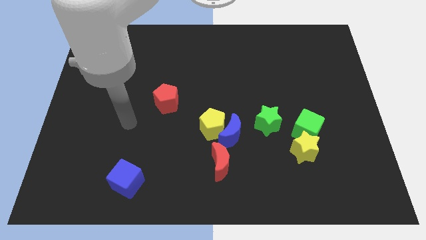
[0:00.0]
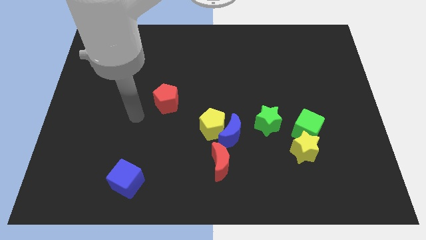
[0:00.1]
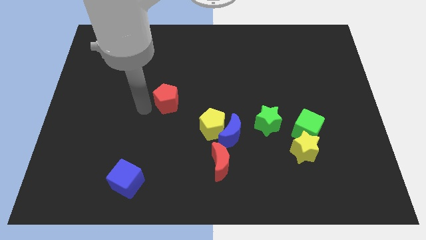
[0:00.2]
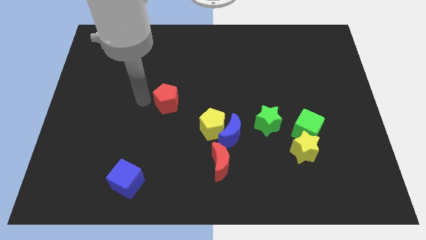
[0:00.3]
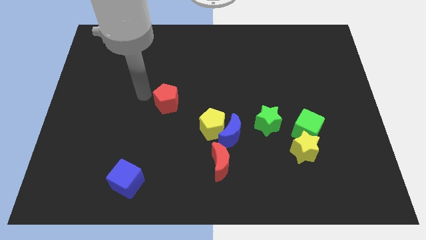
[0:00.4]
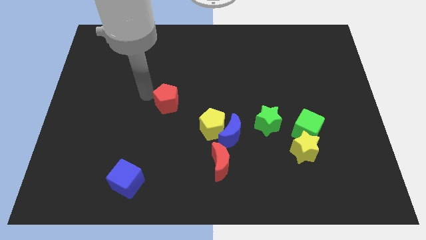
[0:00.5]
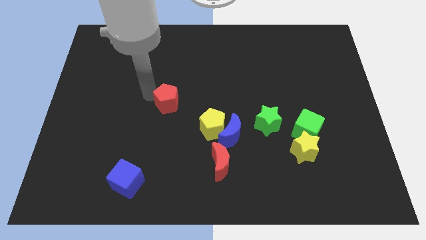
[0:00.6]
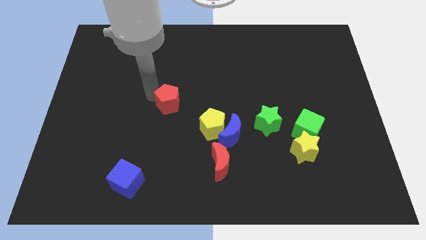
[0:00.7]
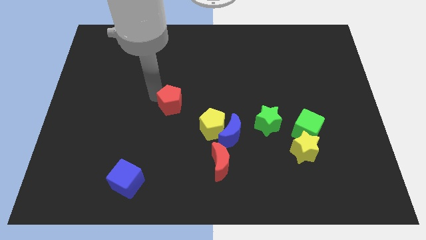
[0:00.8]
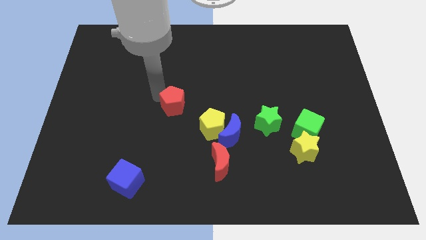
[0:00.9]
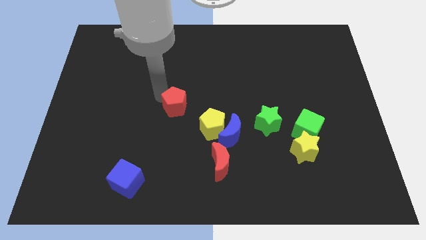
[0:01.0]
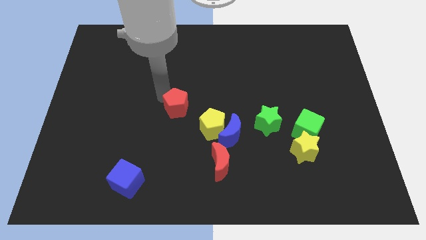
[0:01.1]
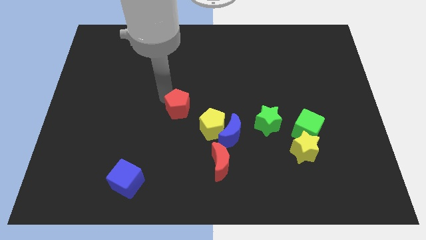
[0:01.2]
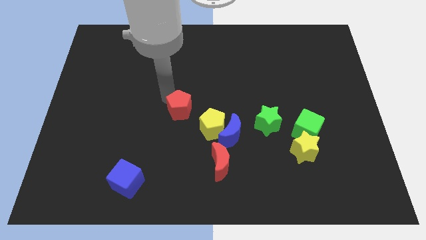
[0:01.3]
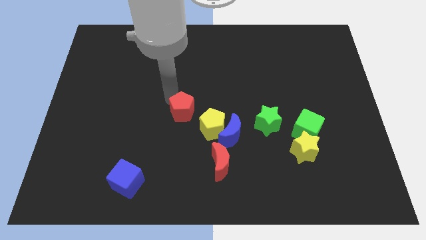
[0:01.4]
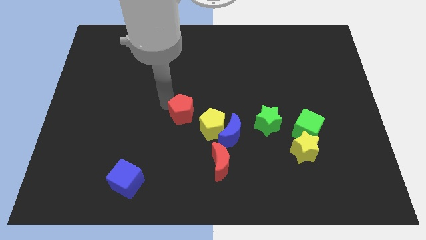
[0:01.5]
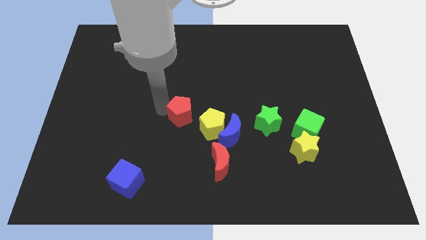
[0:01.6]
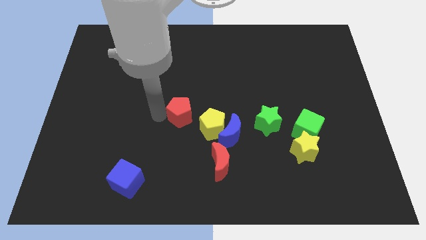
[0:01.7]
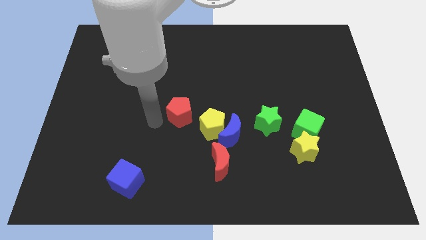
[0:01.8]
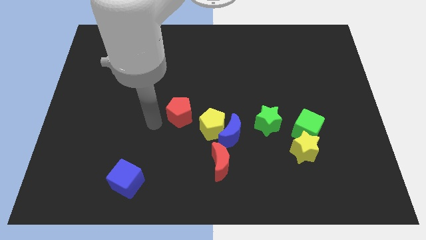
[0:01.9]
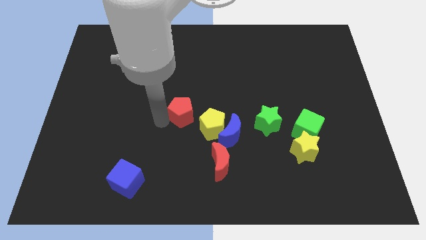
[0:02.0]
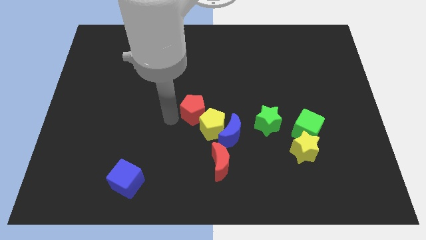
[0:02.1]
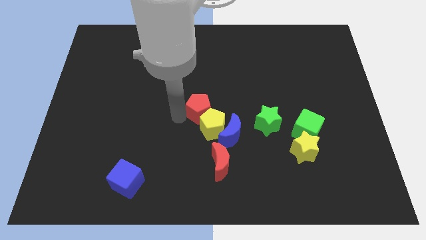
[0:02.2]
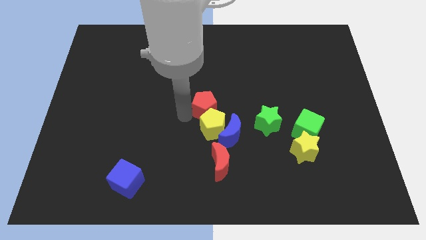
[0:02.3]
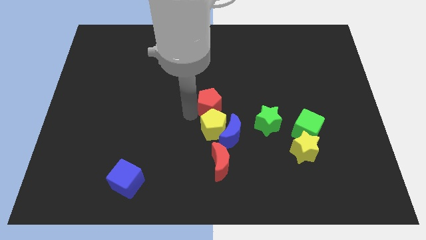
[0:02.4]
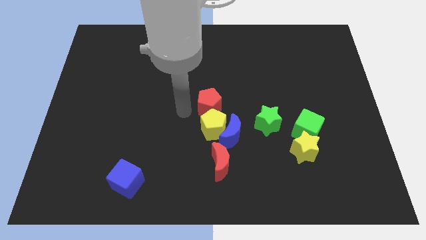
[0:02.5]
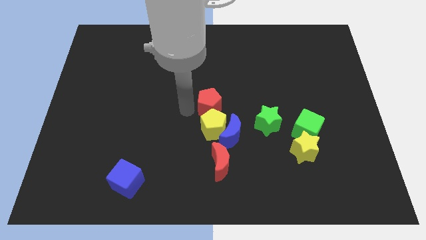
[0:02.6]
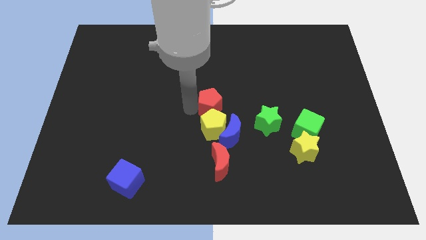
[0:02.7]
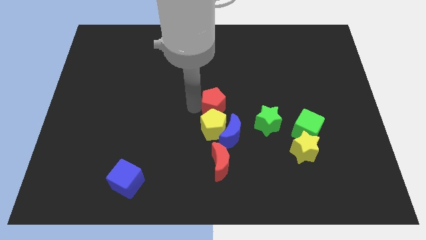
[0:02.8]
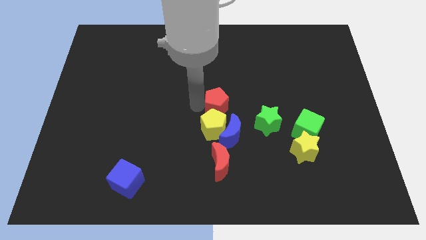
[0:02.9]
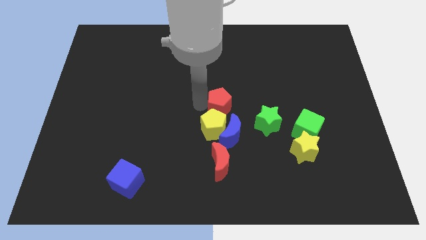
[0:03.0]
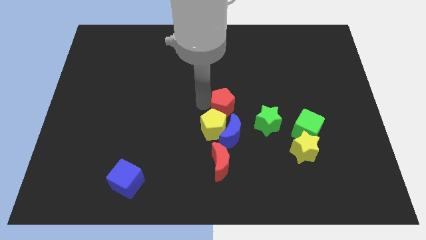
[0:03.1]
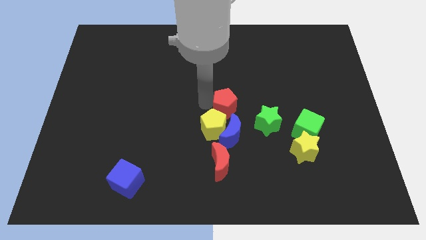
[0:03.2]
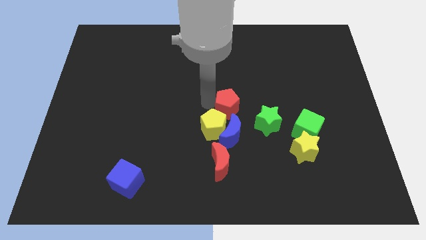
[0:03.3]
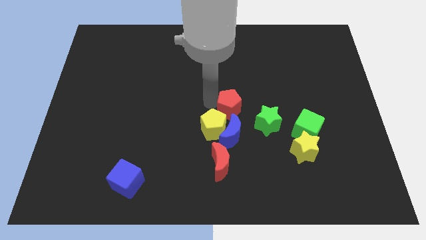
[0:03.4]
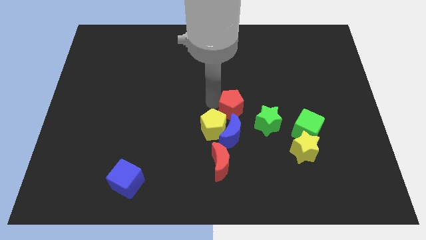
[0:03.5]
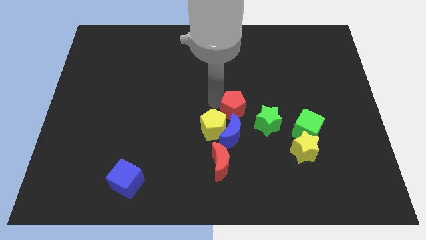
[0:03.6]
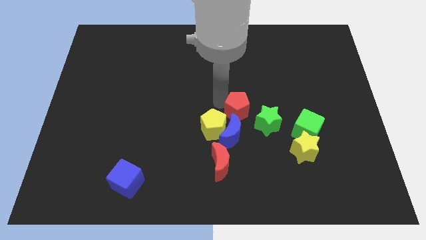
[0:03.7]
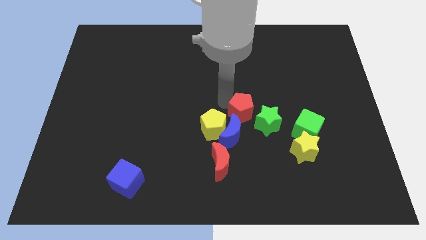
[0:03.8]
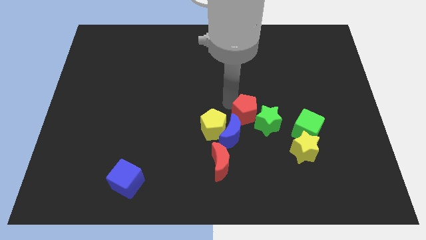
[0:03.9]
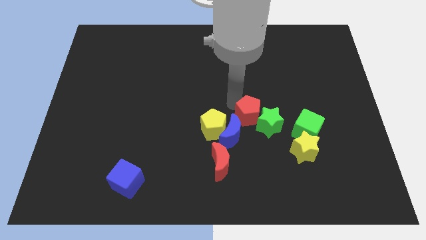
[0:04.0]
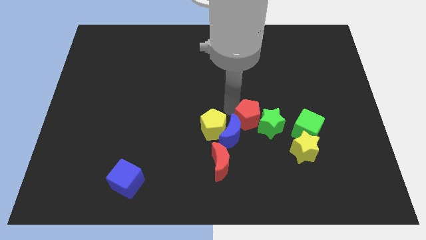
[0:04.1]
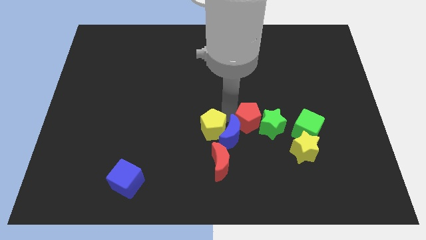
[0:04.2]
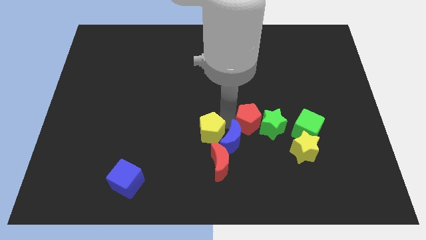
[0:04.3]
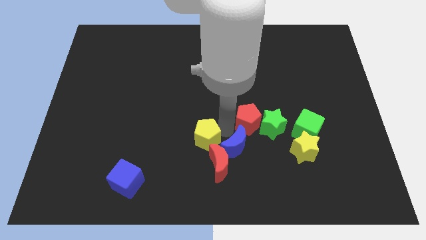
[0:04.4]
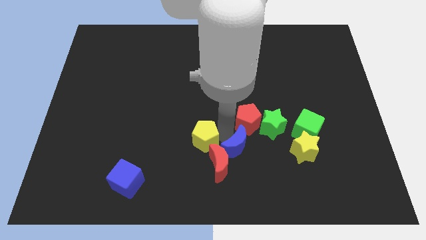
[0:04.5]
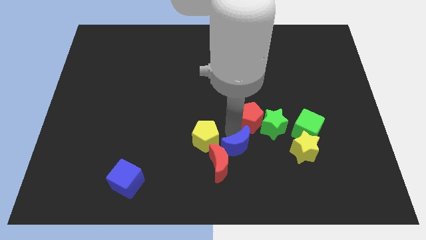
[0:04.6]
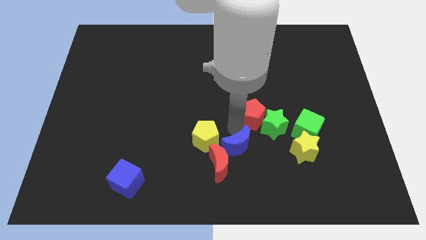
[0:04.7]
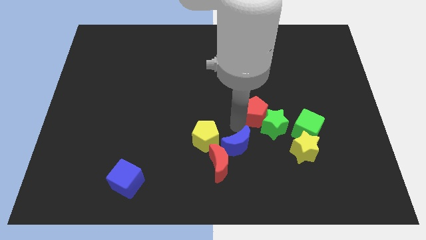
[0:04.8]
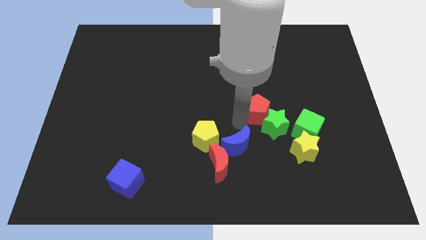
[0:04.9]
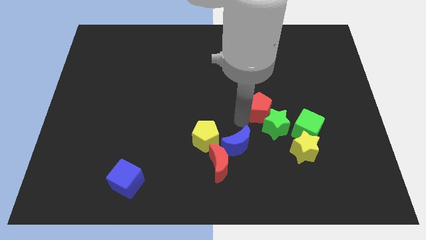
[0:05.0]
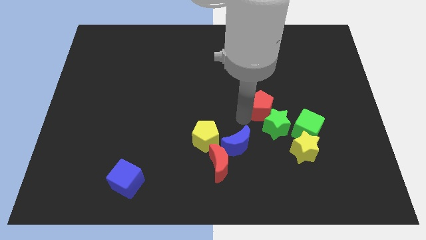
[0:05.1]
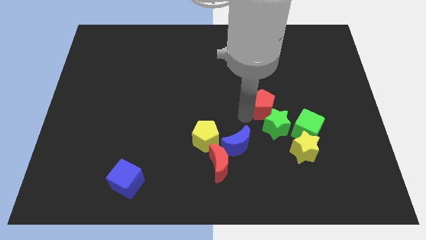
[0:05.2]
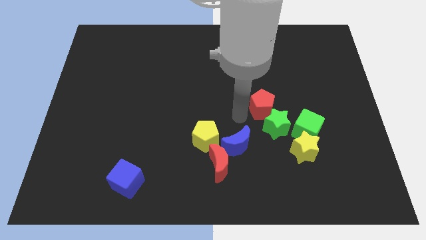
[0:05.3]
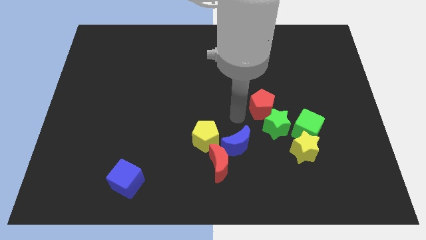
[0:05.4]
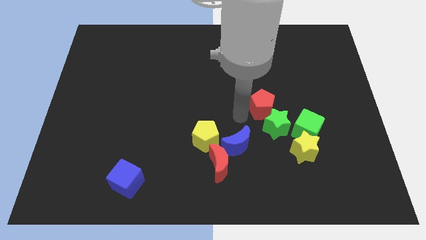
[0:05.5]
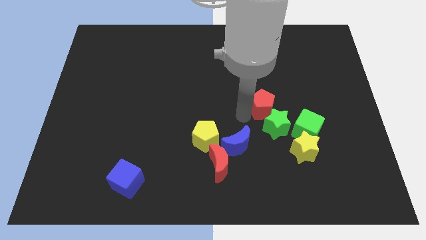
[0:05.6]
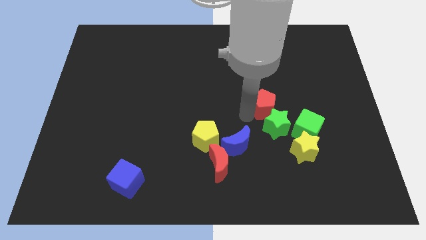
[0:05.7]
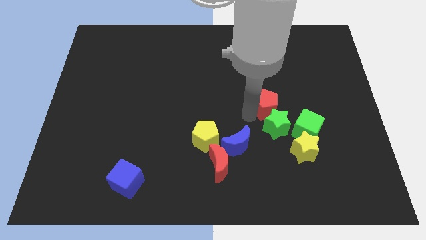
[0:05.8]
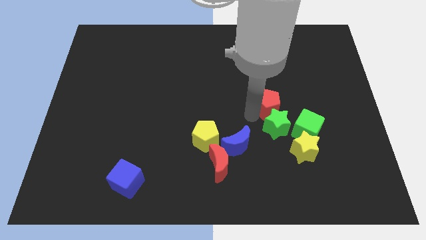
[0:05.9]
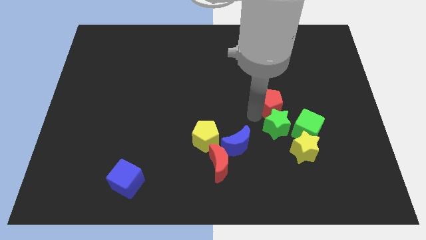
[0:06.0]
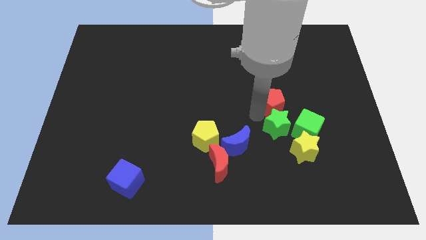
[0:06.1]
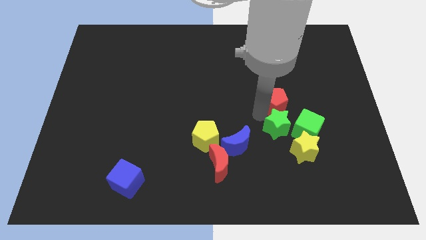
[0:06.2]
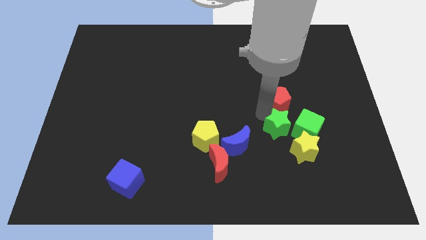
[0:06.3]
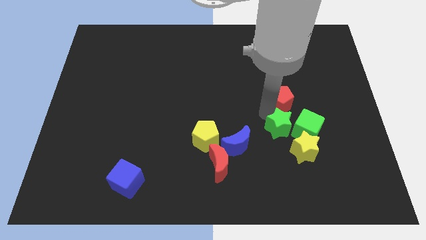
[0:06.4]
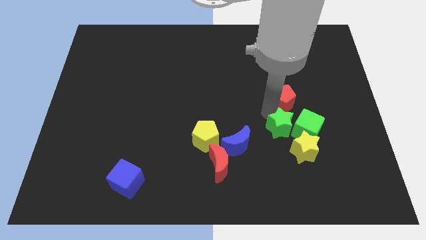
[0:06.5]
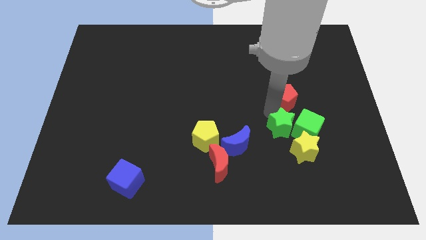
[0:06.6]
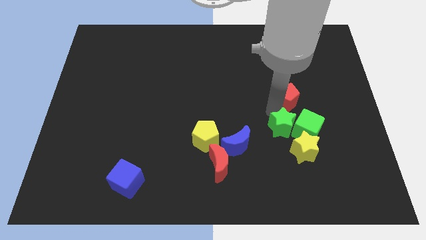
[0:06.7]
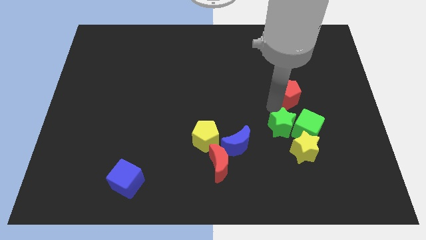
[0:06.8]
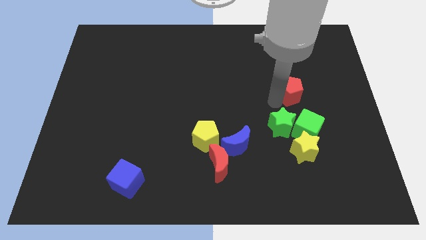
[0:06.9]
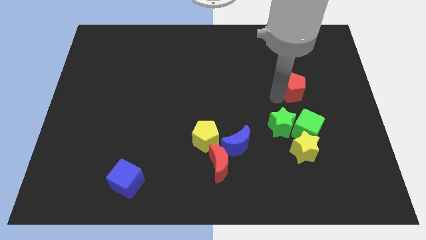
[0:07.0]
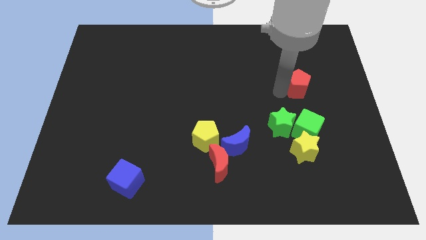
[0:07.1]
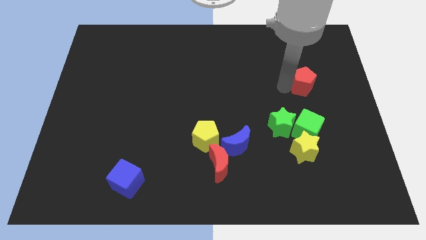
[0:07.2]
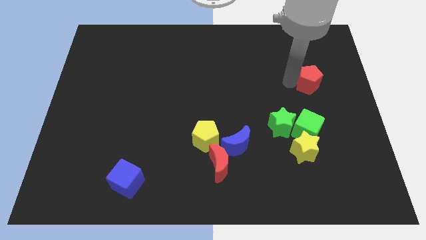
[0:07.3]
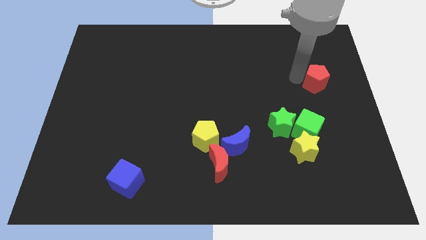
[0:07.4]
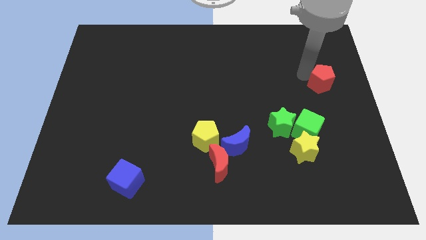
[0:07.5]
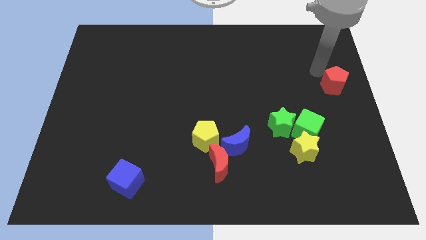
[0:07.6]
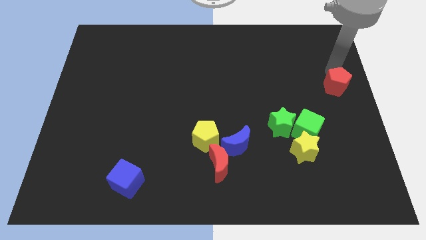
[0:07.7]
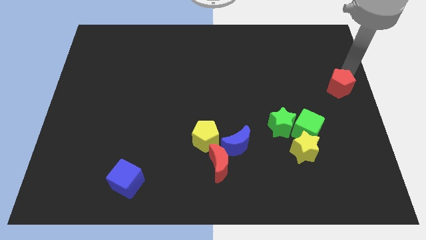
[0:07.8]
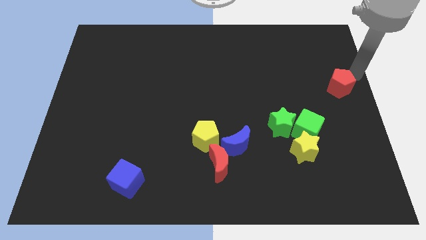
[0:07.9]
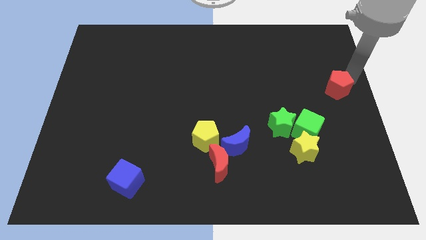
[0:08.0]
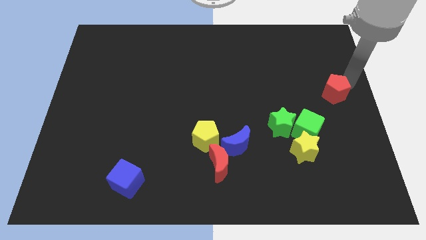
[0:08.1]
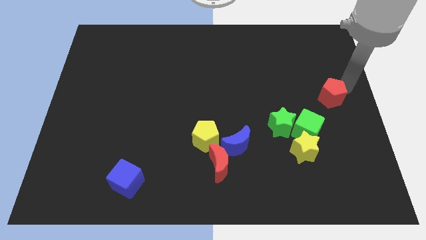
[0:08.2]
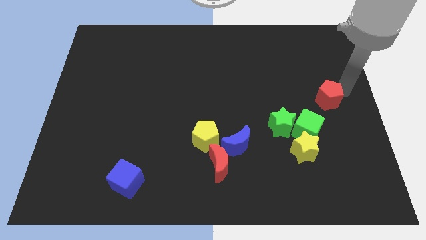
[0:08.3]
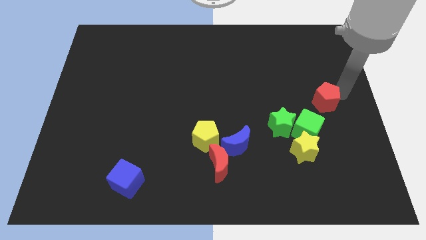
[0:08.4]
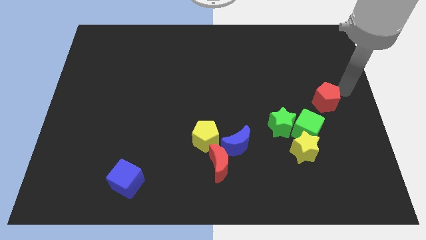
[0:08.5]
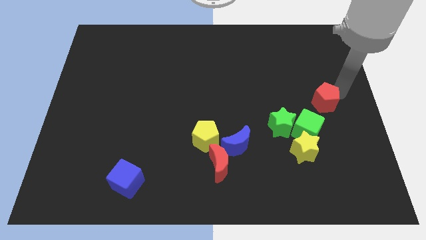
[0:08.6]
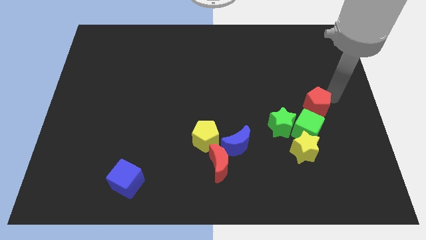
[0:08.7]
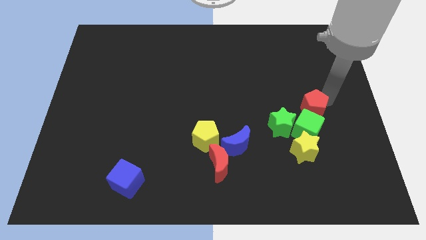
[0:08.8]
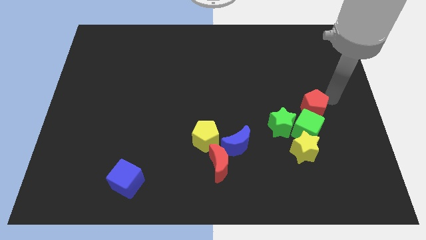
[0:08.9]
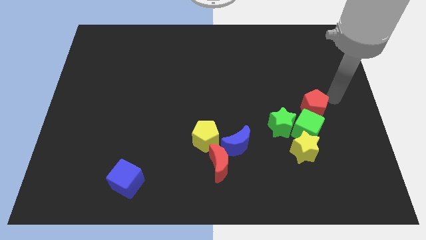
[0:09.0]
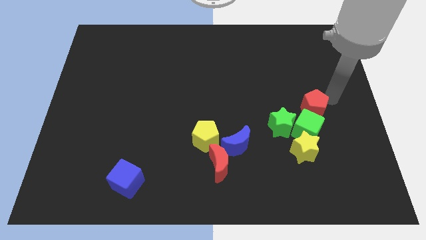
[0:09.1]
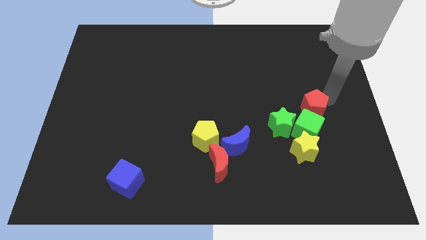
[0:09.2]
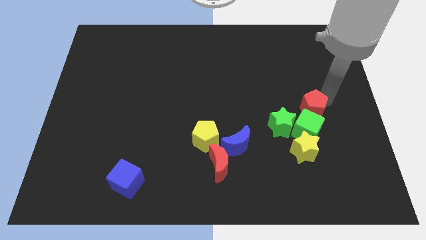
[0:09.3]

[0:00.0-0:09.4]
move the red pentagon close to the green cube
